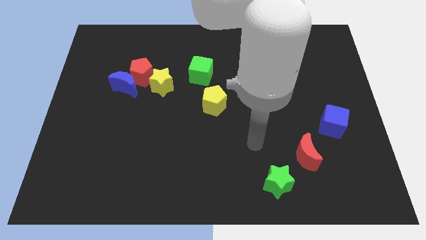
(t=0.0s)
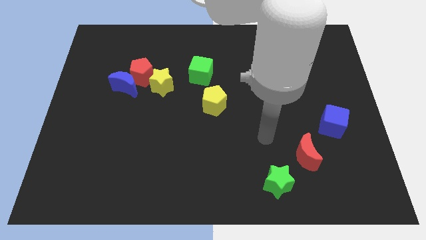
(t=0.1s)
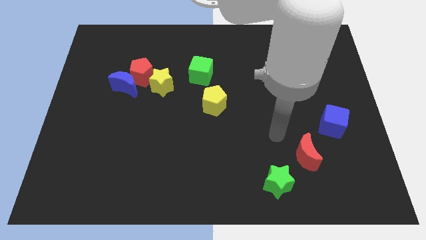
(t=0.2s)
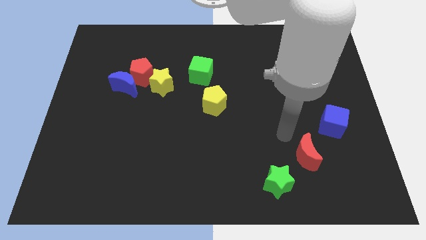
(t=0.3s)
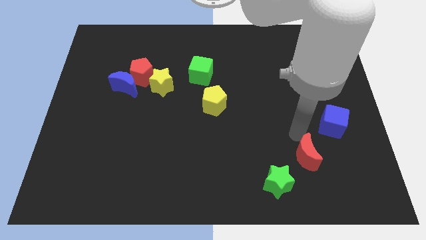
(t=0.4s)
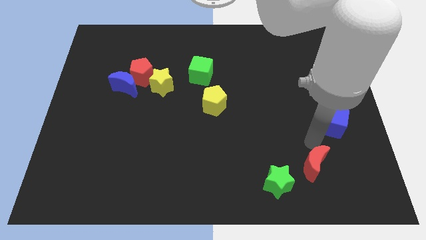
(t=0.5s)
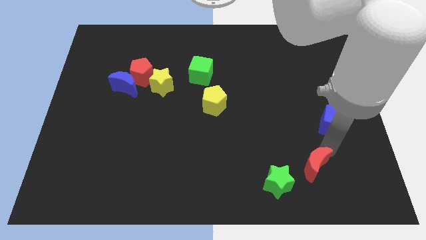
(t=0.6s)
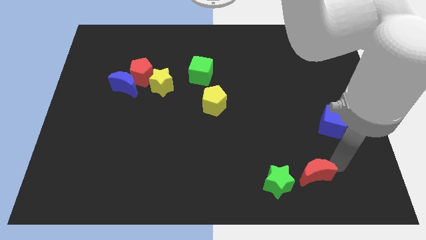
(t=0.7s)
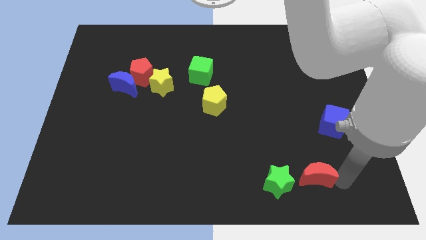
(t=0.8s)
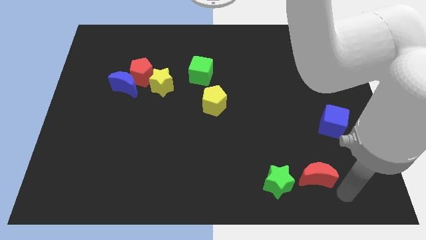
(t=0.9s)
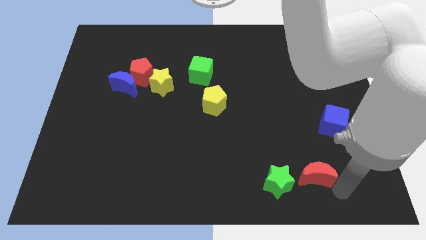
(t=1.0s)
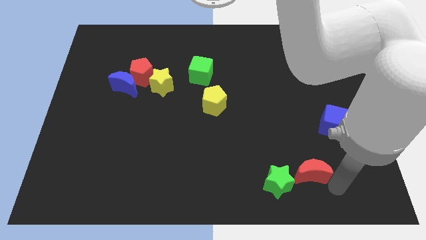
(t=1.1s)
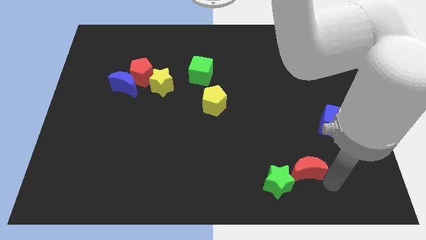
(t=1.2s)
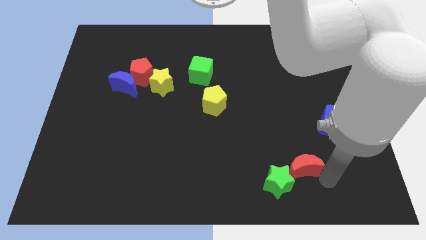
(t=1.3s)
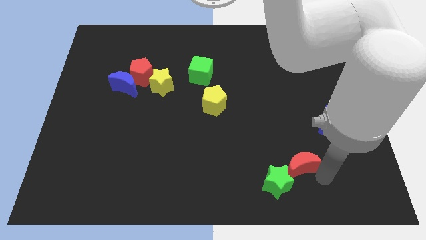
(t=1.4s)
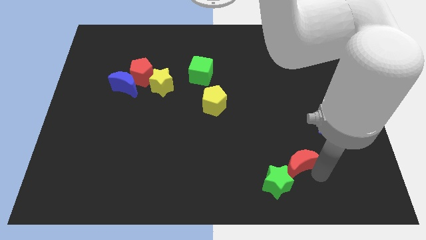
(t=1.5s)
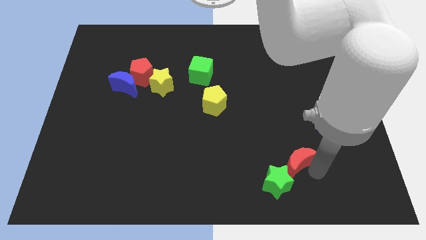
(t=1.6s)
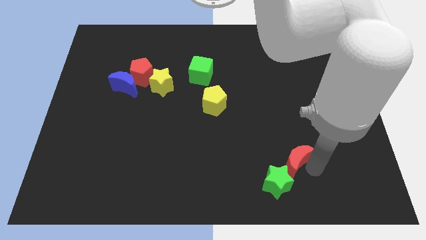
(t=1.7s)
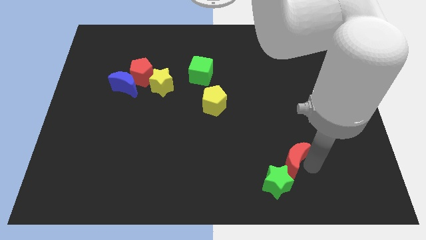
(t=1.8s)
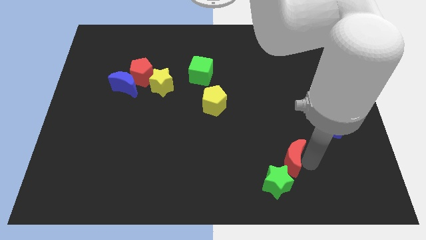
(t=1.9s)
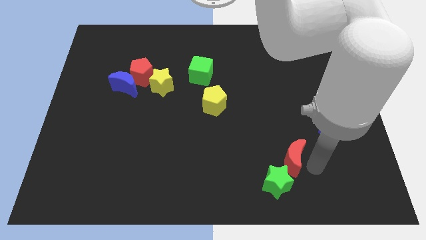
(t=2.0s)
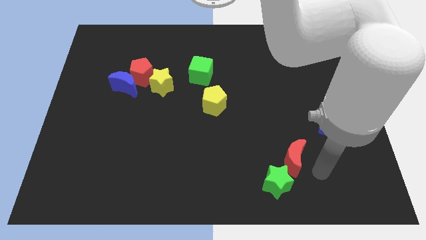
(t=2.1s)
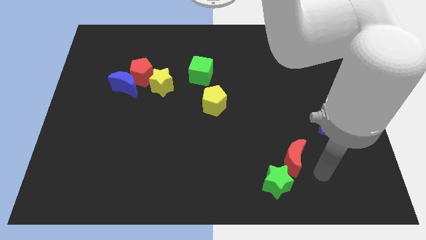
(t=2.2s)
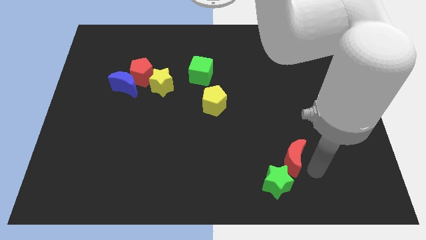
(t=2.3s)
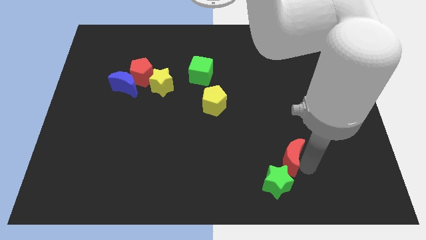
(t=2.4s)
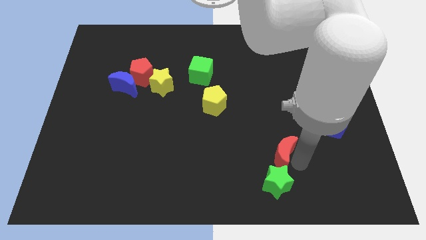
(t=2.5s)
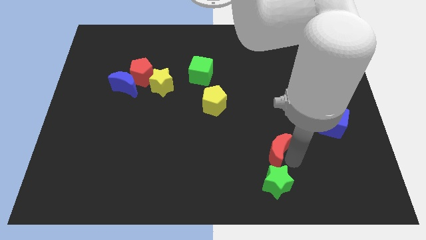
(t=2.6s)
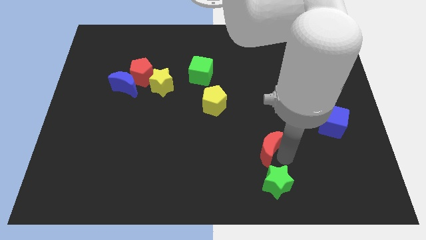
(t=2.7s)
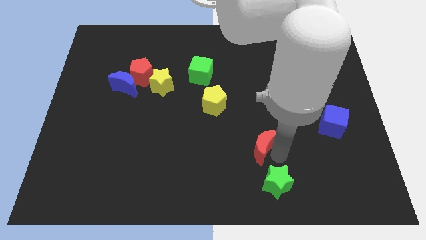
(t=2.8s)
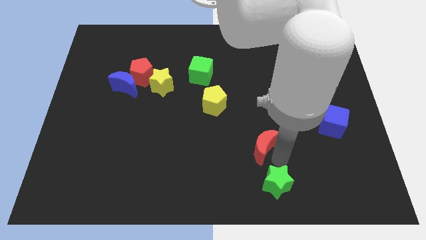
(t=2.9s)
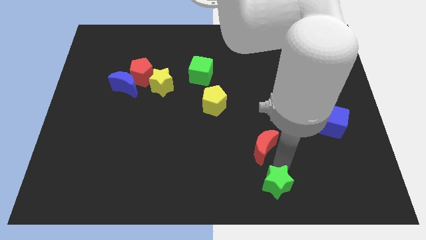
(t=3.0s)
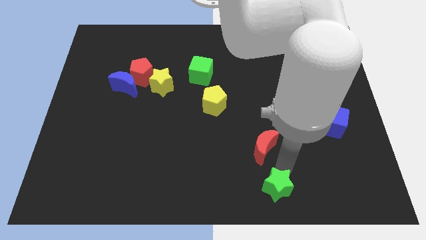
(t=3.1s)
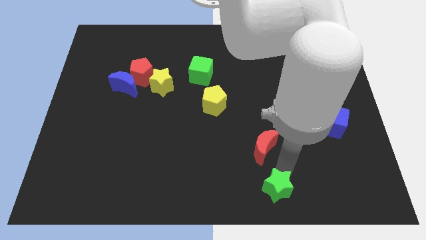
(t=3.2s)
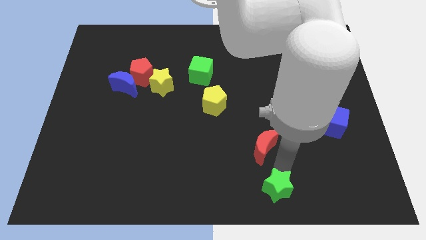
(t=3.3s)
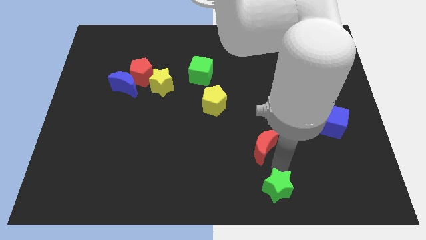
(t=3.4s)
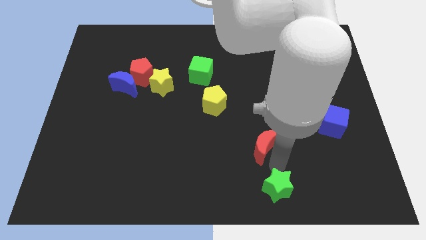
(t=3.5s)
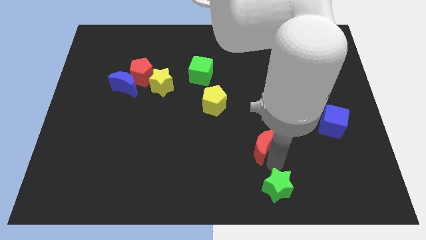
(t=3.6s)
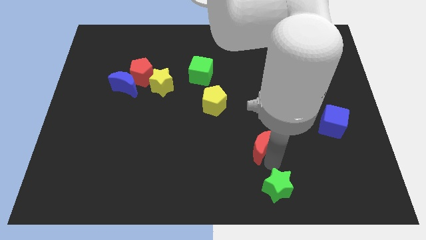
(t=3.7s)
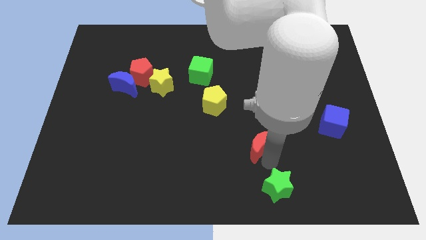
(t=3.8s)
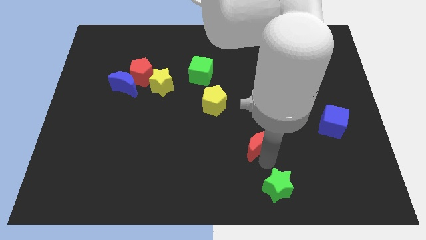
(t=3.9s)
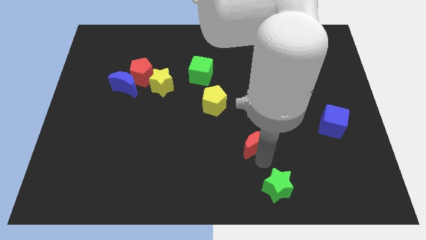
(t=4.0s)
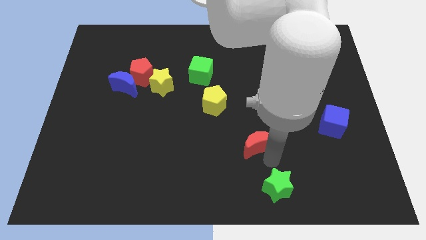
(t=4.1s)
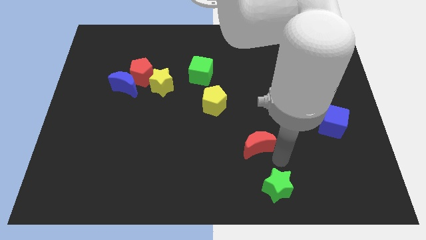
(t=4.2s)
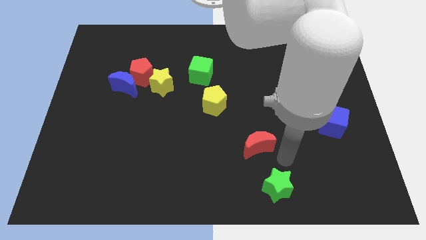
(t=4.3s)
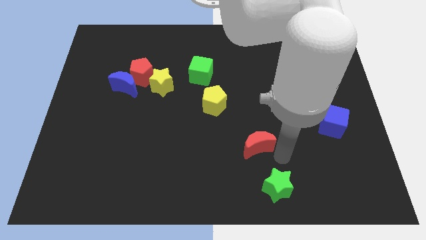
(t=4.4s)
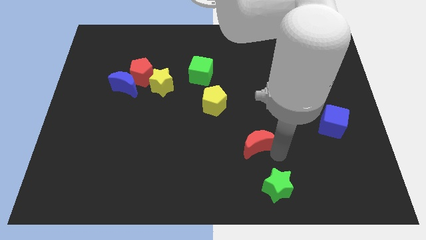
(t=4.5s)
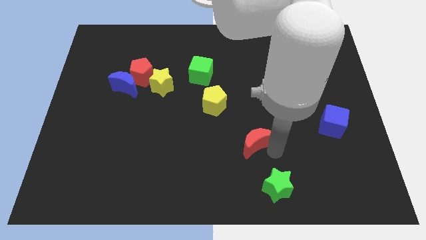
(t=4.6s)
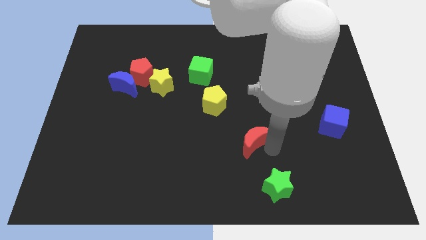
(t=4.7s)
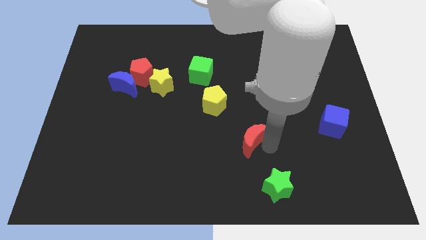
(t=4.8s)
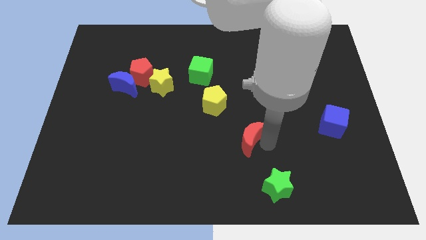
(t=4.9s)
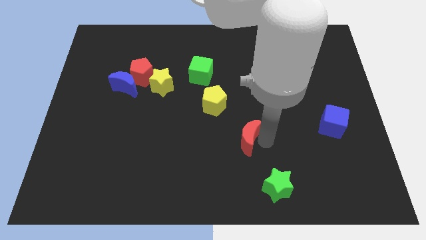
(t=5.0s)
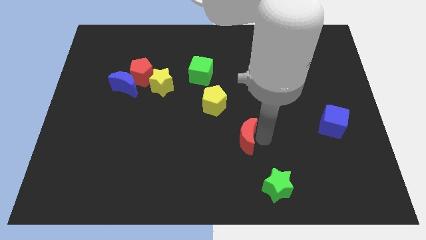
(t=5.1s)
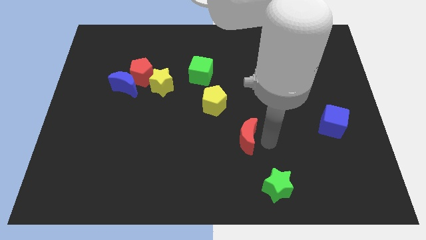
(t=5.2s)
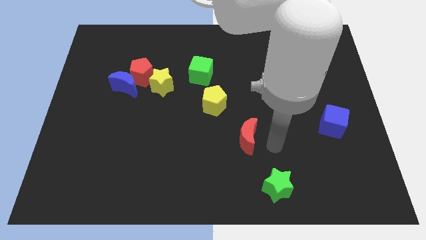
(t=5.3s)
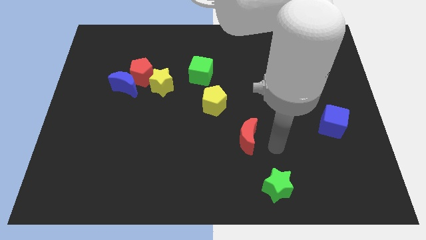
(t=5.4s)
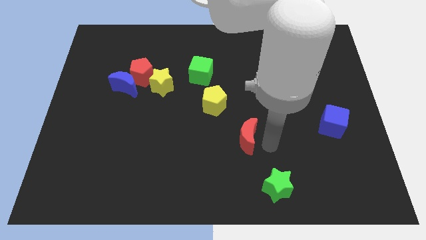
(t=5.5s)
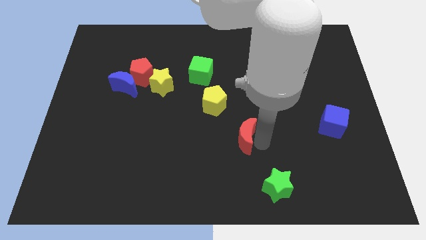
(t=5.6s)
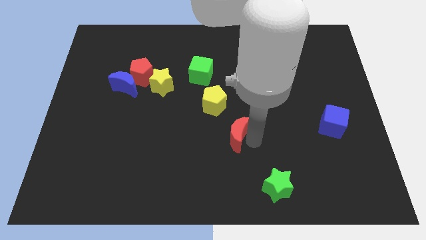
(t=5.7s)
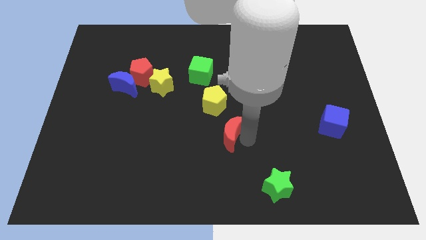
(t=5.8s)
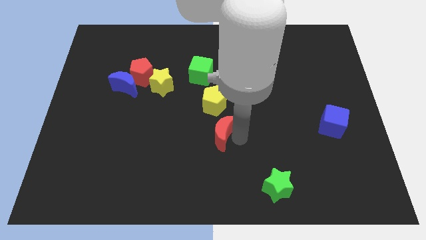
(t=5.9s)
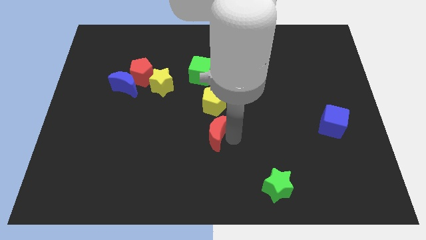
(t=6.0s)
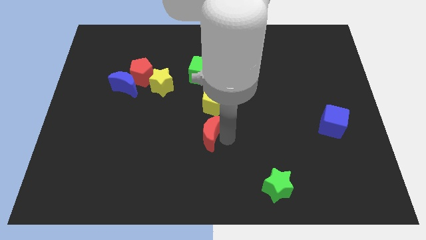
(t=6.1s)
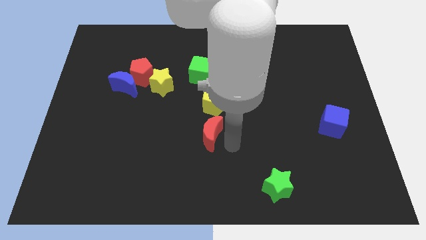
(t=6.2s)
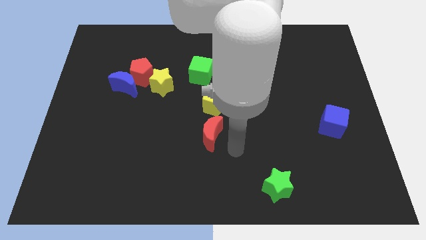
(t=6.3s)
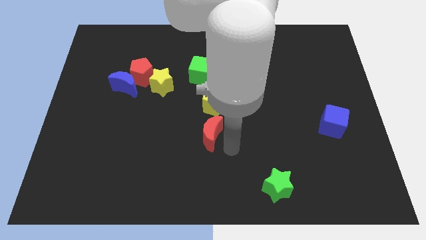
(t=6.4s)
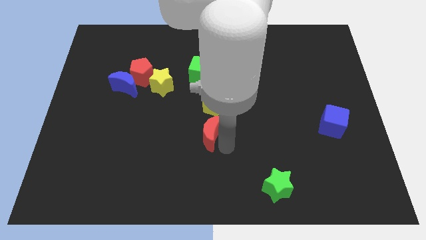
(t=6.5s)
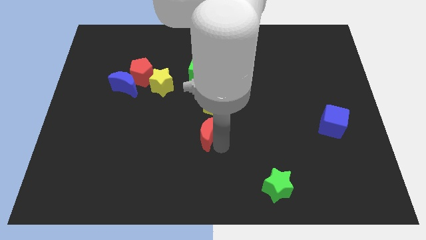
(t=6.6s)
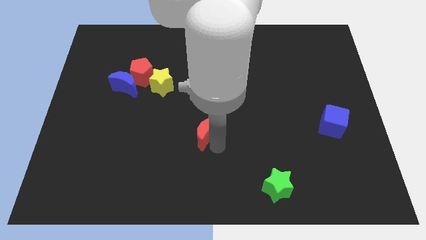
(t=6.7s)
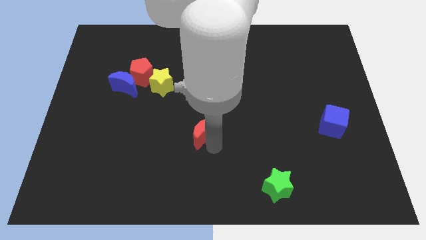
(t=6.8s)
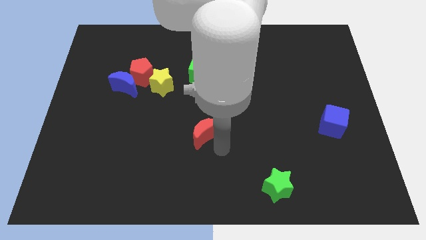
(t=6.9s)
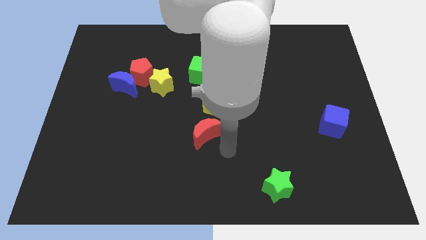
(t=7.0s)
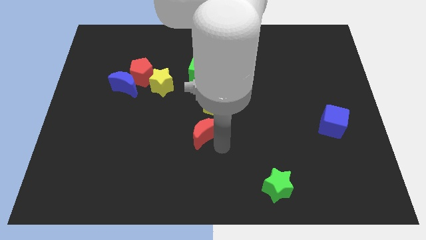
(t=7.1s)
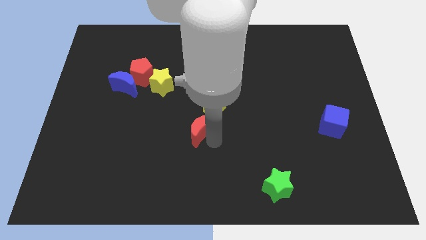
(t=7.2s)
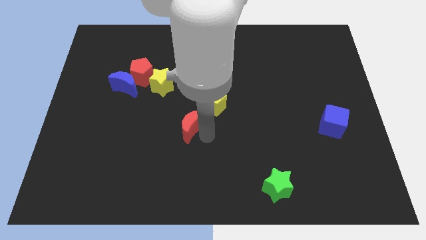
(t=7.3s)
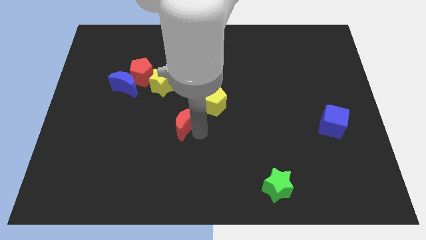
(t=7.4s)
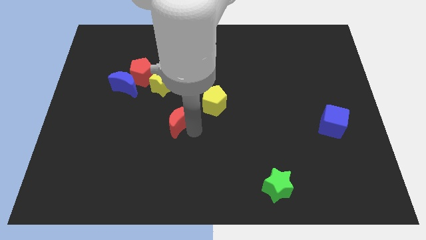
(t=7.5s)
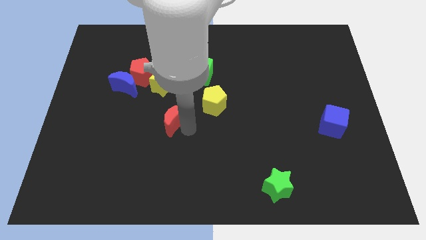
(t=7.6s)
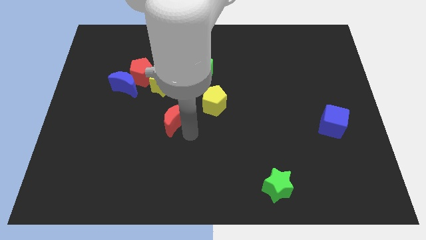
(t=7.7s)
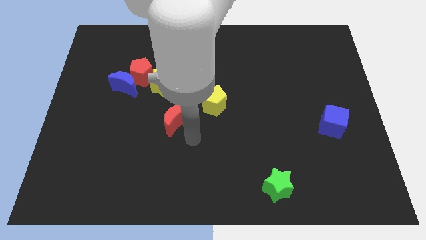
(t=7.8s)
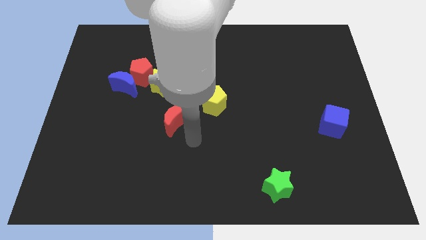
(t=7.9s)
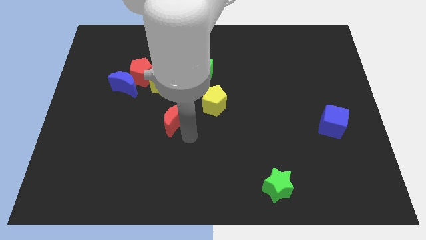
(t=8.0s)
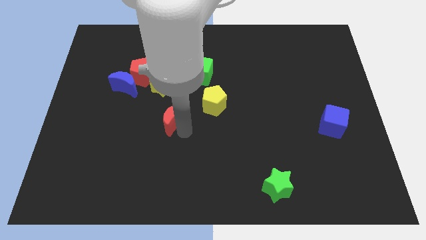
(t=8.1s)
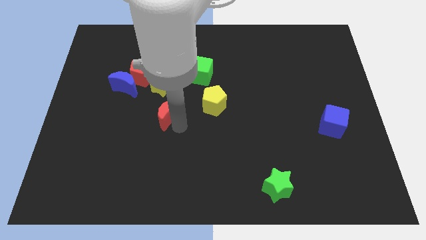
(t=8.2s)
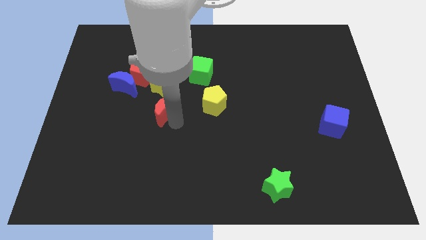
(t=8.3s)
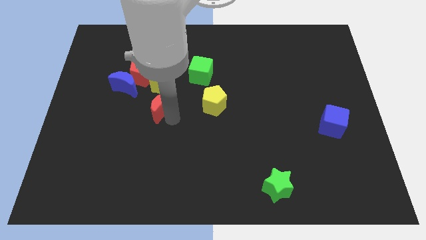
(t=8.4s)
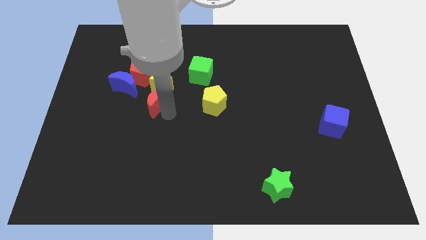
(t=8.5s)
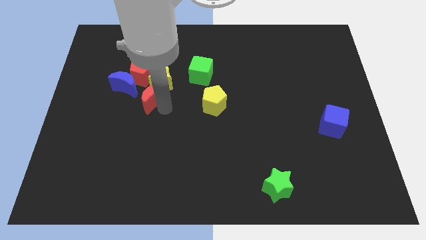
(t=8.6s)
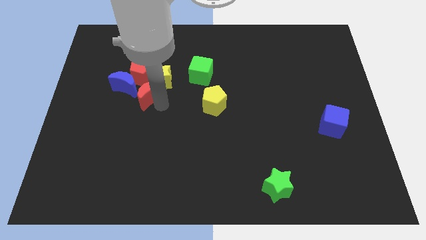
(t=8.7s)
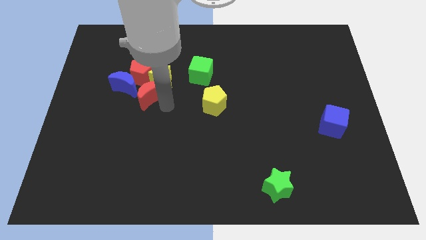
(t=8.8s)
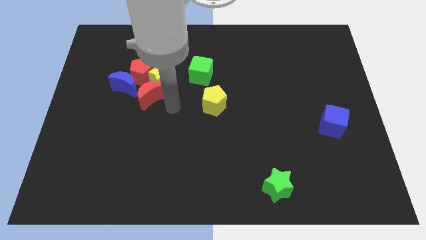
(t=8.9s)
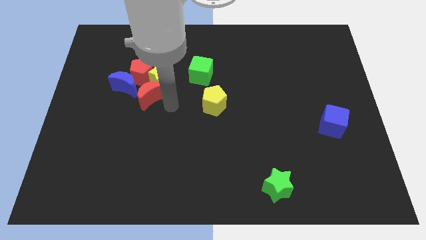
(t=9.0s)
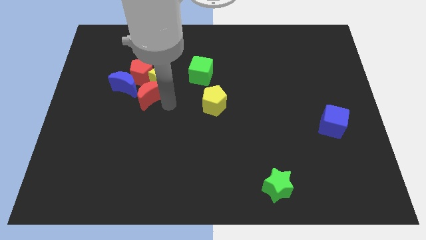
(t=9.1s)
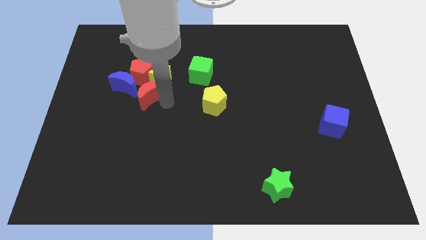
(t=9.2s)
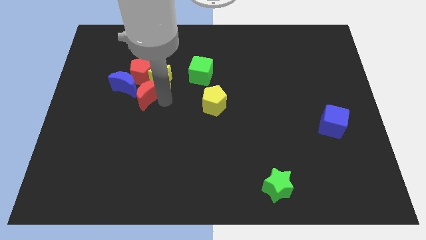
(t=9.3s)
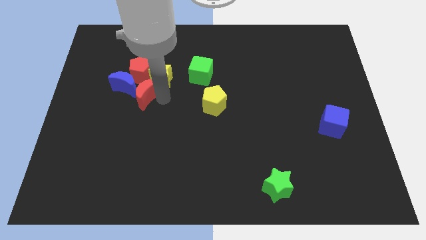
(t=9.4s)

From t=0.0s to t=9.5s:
slide the red moon to the blue moon
